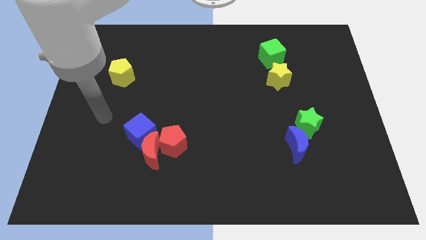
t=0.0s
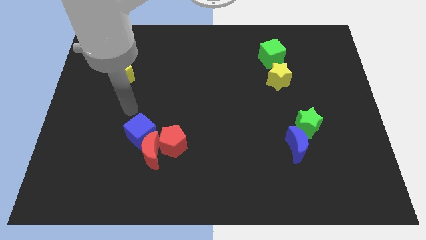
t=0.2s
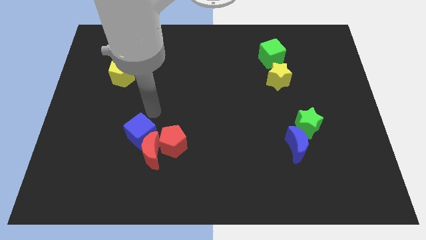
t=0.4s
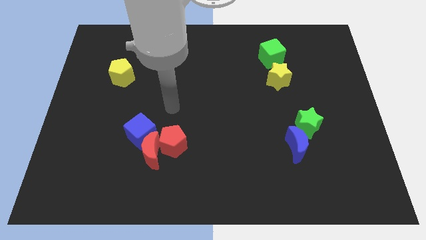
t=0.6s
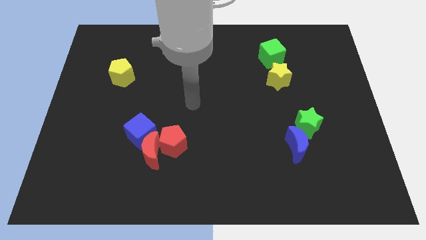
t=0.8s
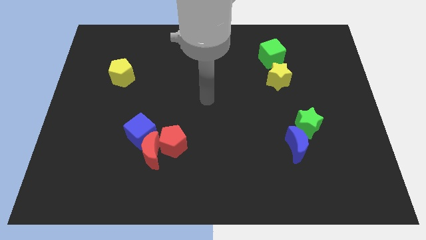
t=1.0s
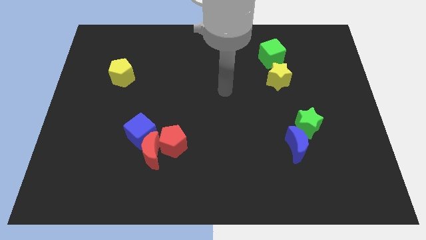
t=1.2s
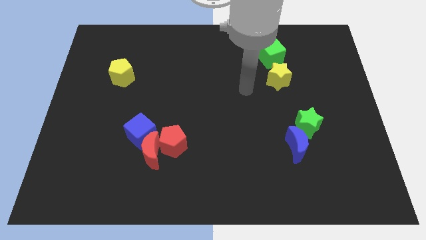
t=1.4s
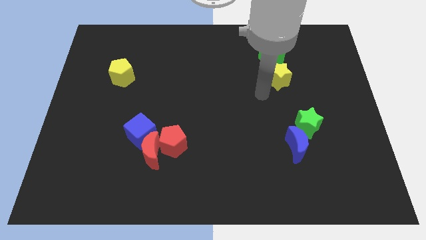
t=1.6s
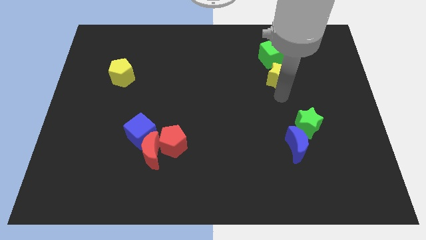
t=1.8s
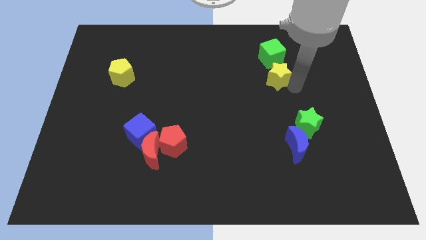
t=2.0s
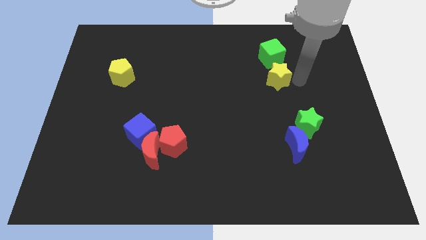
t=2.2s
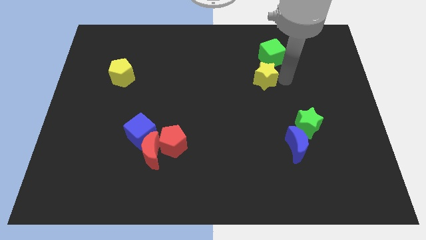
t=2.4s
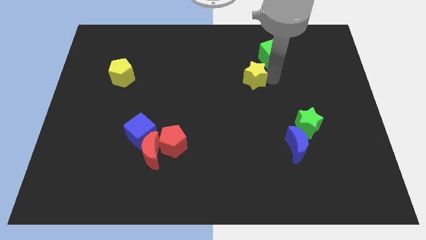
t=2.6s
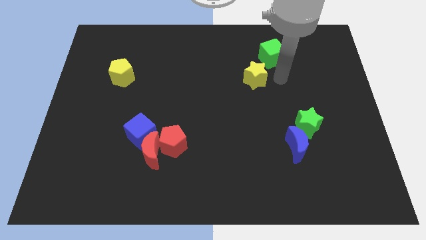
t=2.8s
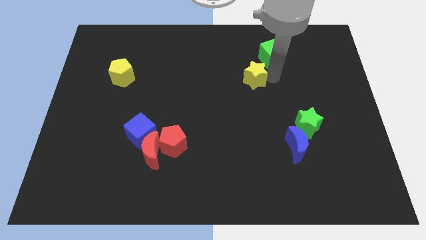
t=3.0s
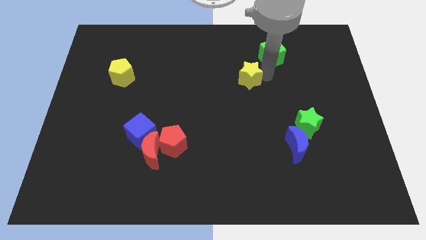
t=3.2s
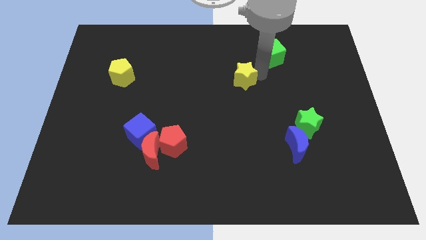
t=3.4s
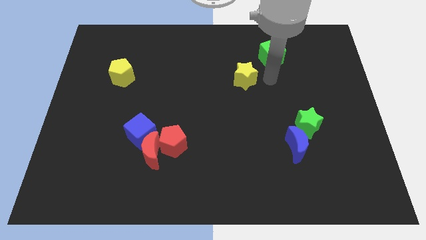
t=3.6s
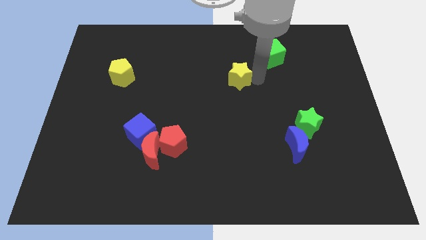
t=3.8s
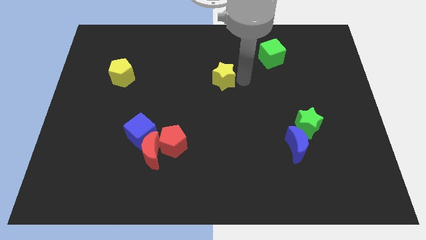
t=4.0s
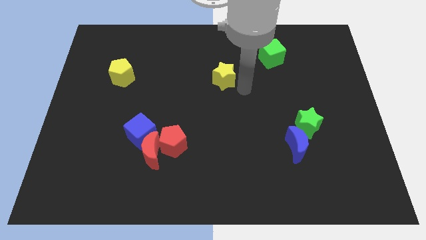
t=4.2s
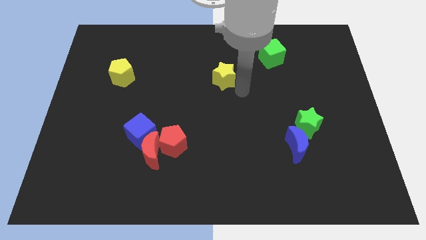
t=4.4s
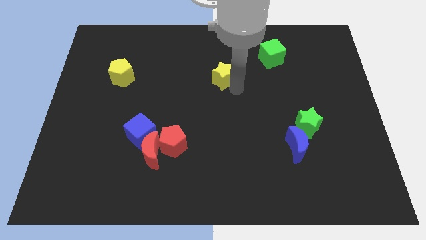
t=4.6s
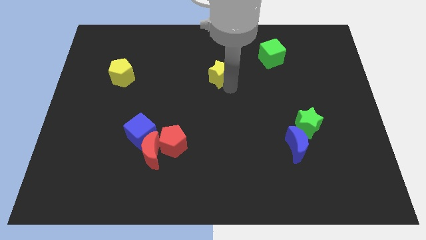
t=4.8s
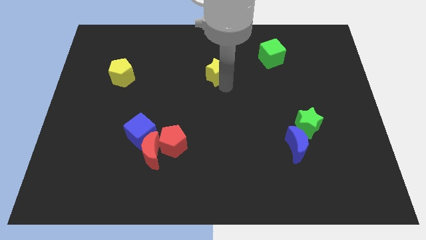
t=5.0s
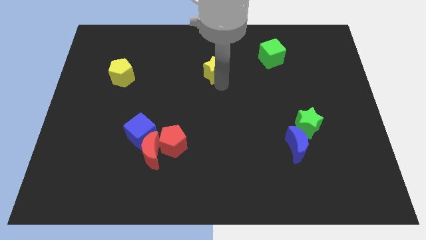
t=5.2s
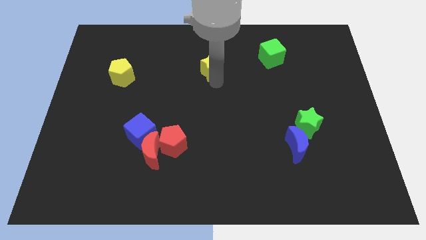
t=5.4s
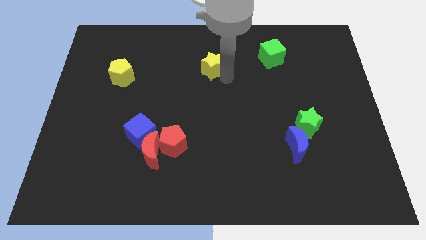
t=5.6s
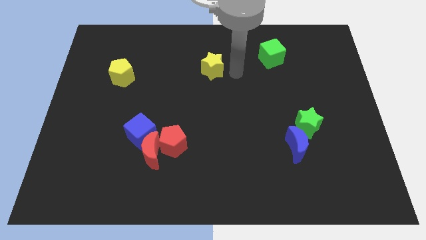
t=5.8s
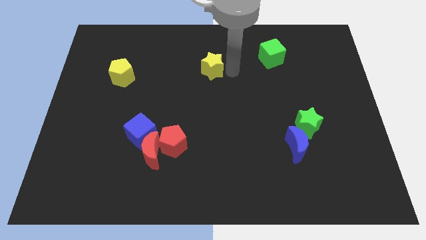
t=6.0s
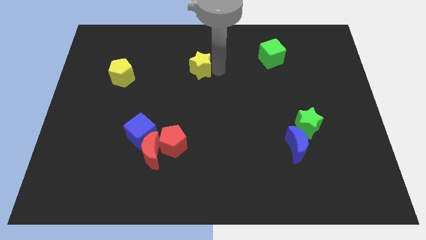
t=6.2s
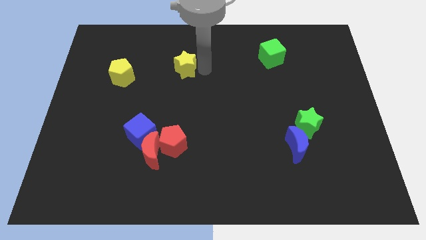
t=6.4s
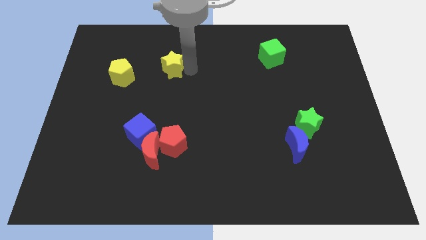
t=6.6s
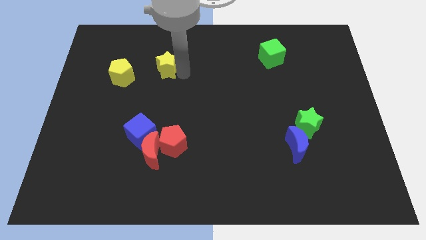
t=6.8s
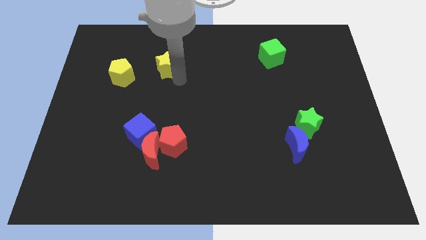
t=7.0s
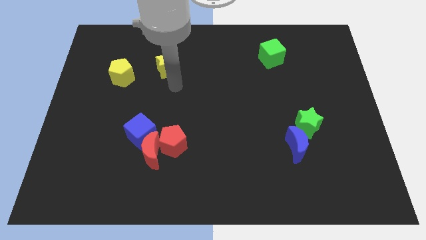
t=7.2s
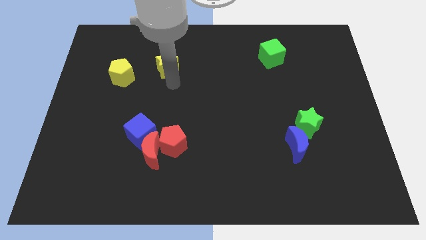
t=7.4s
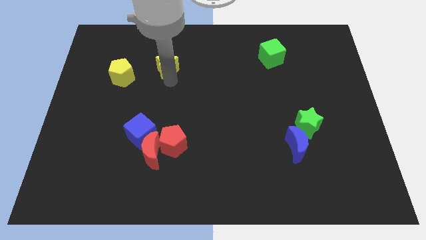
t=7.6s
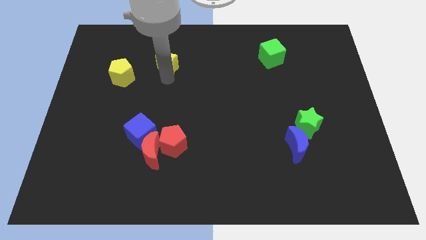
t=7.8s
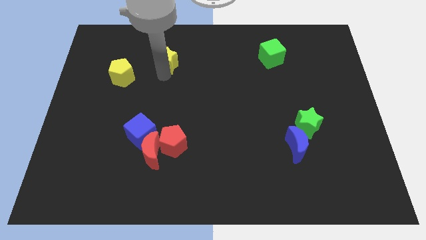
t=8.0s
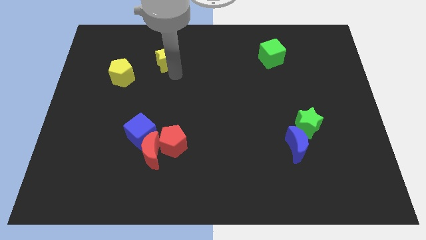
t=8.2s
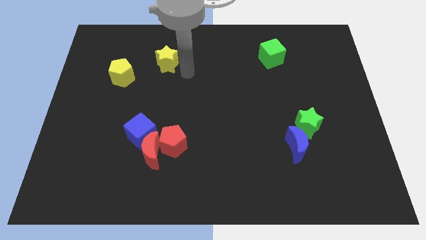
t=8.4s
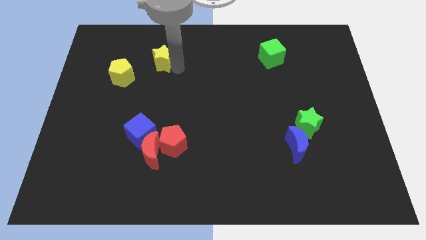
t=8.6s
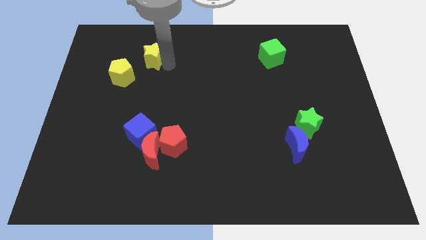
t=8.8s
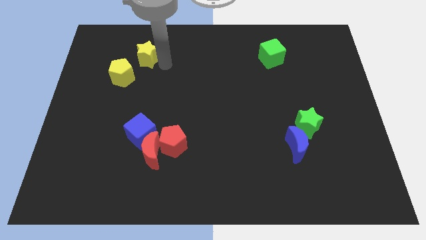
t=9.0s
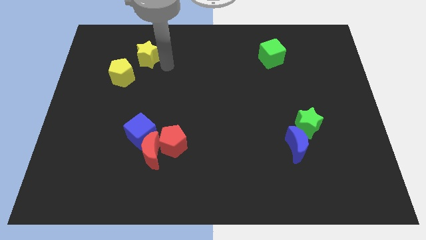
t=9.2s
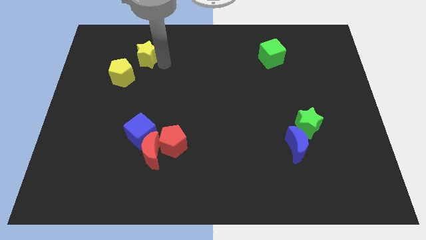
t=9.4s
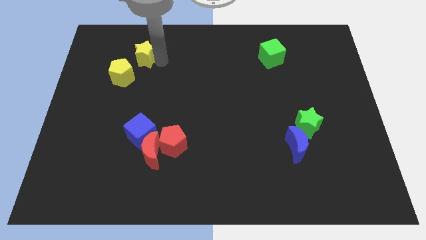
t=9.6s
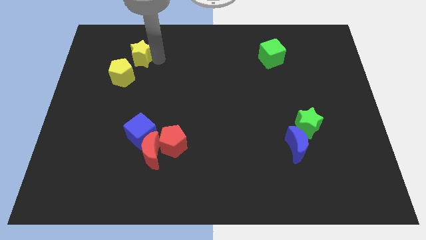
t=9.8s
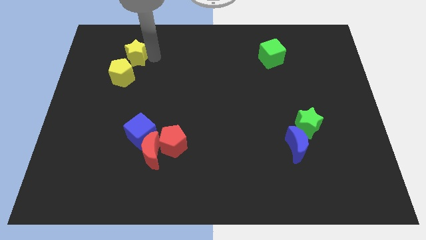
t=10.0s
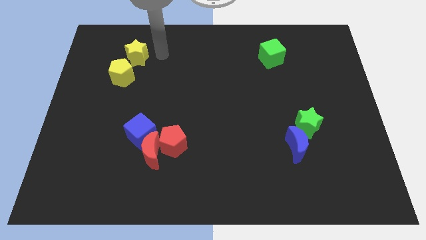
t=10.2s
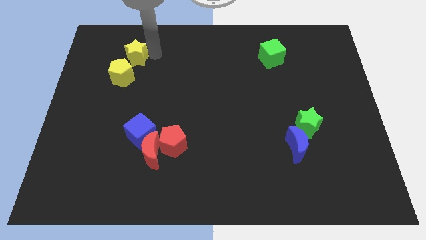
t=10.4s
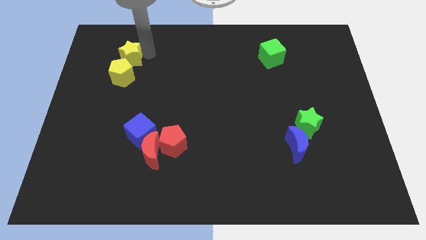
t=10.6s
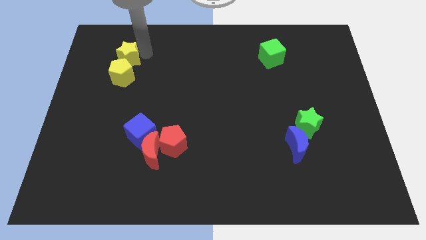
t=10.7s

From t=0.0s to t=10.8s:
put the yellow star to the top left of the yellow pentagon
